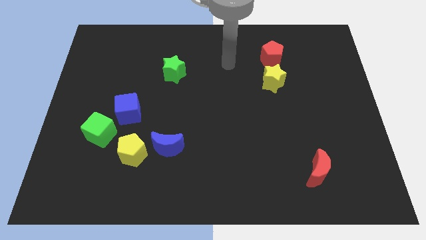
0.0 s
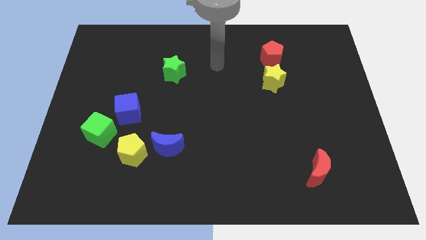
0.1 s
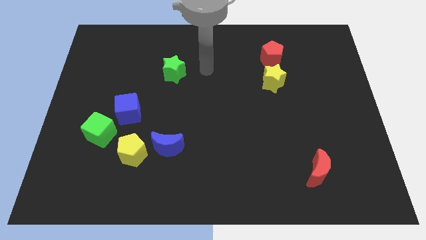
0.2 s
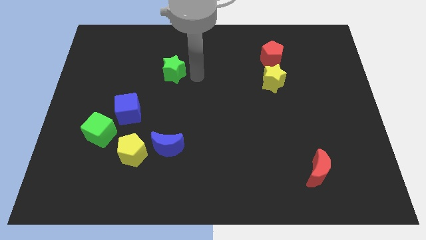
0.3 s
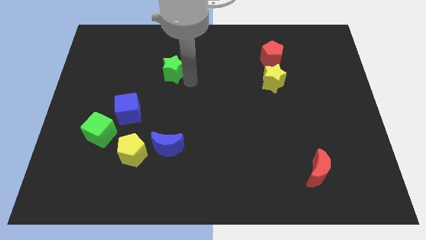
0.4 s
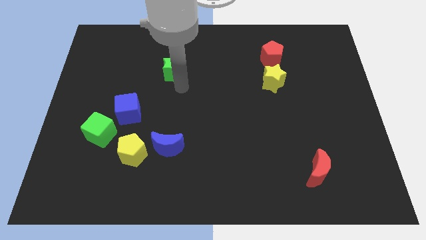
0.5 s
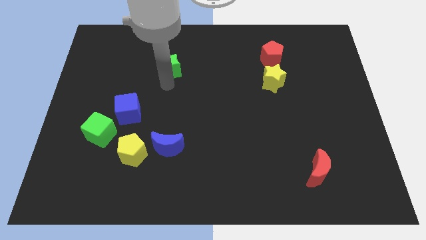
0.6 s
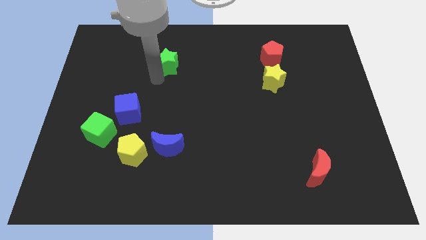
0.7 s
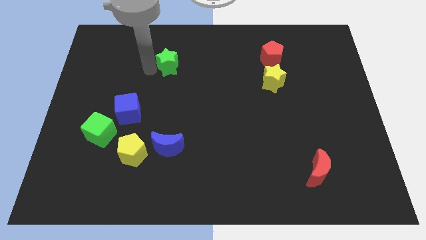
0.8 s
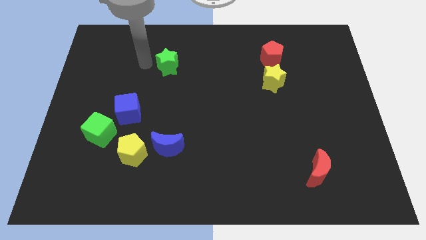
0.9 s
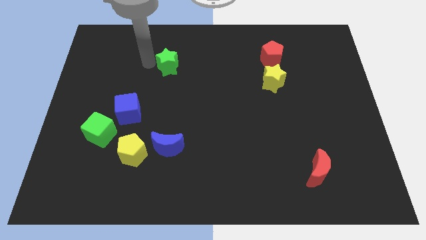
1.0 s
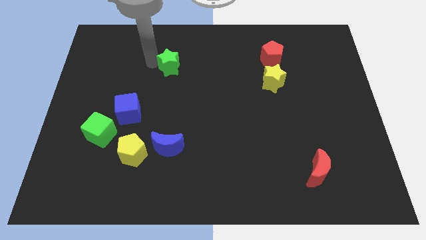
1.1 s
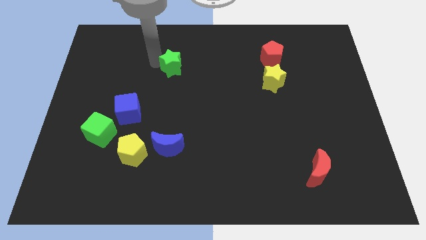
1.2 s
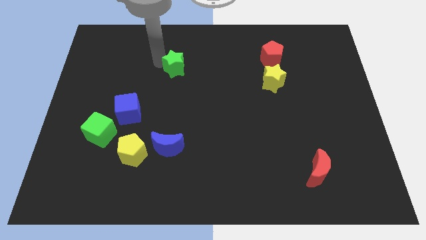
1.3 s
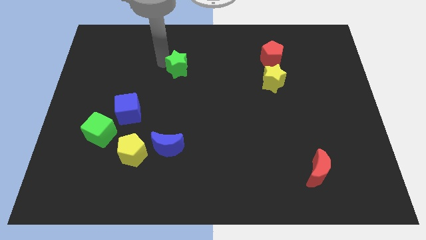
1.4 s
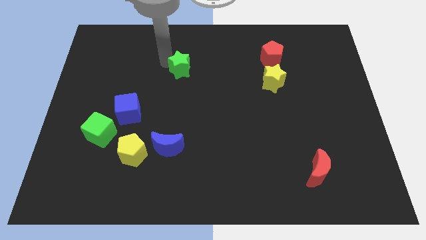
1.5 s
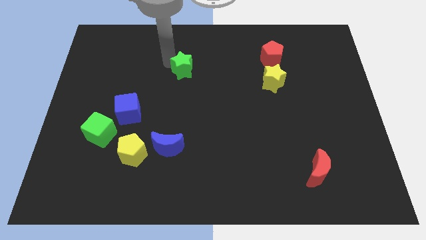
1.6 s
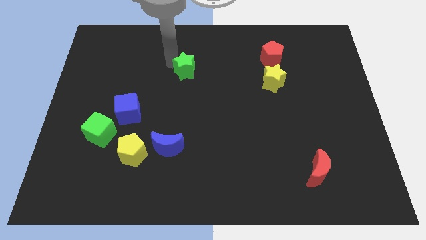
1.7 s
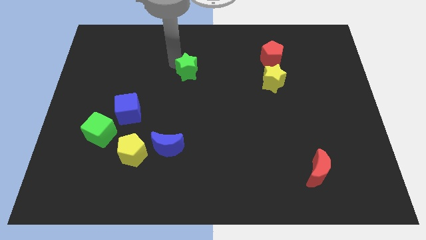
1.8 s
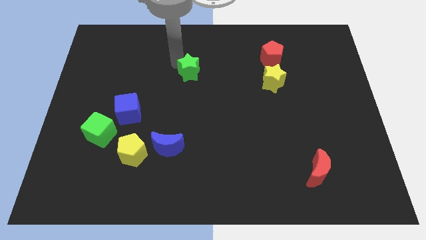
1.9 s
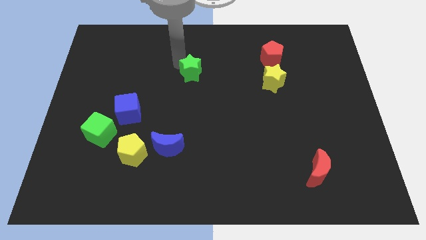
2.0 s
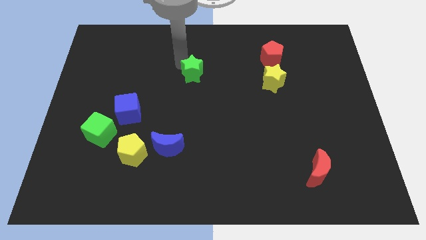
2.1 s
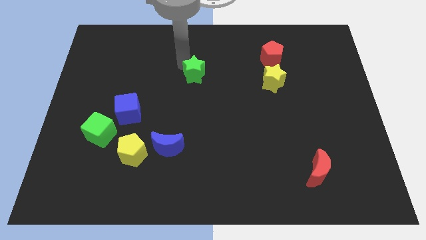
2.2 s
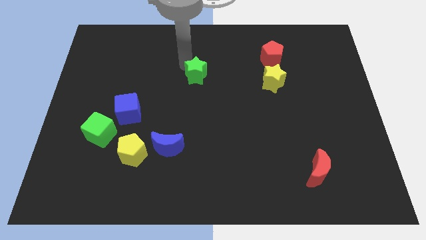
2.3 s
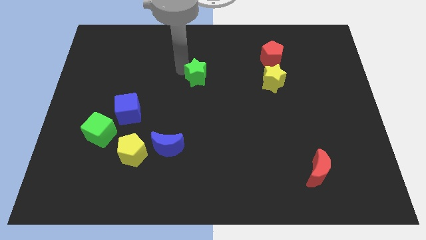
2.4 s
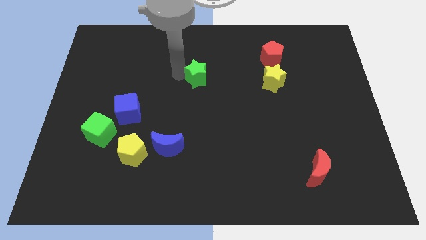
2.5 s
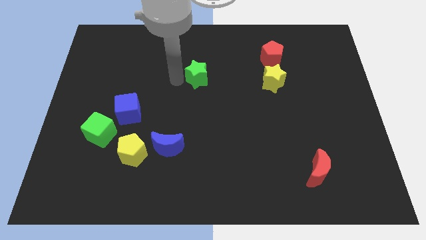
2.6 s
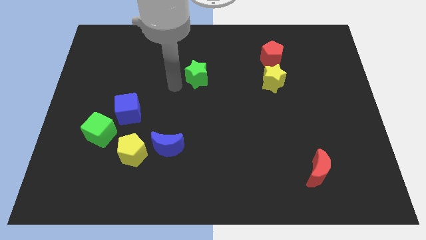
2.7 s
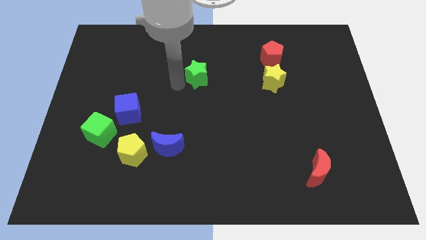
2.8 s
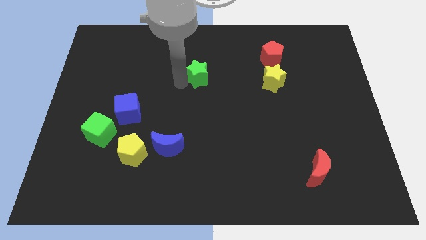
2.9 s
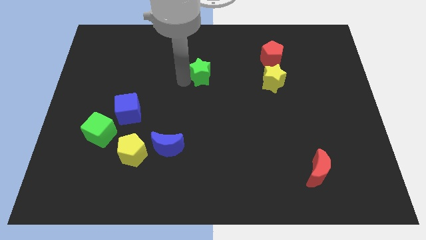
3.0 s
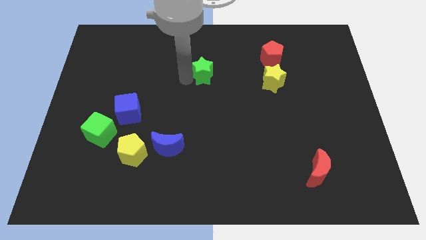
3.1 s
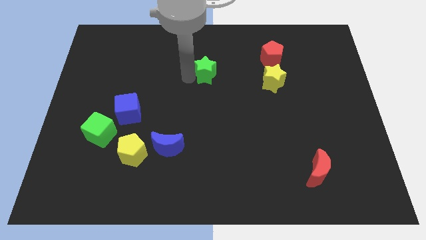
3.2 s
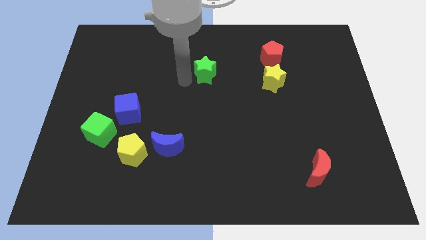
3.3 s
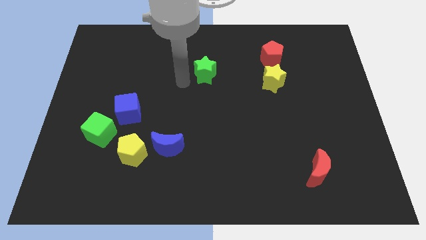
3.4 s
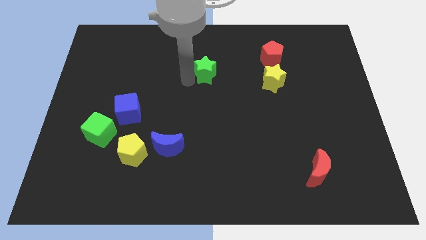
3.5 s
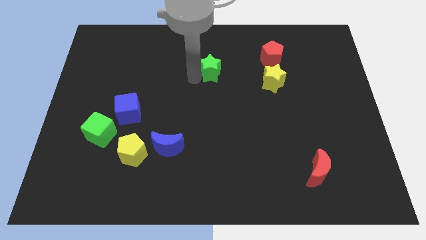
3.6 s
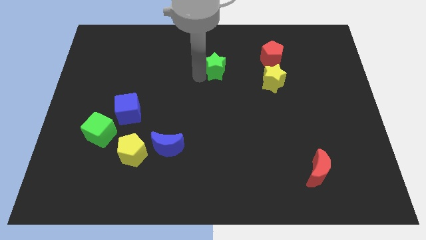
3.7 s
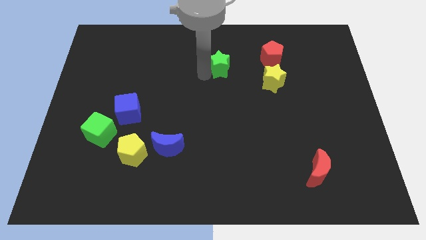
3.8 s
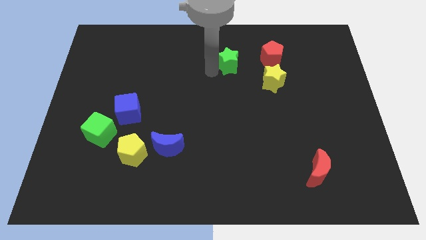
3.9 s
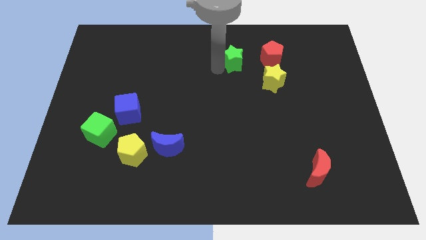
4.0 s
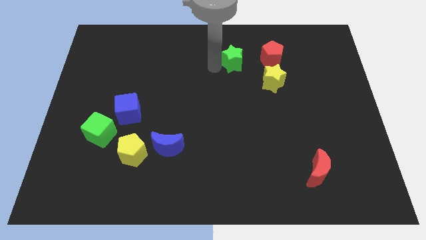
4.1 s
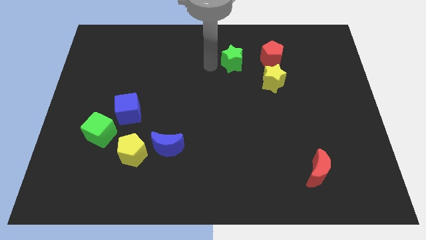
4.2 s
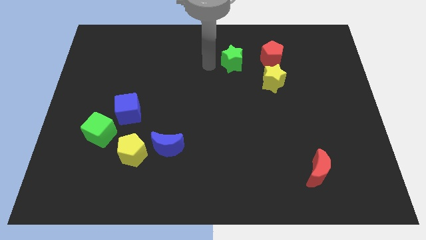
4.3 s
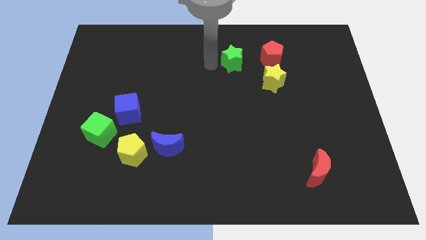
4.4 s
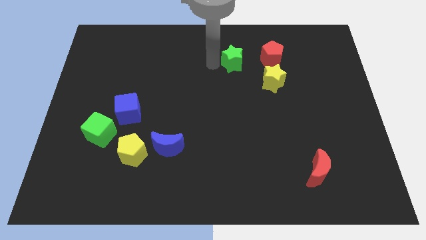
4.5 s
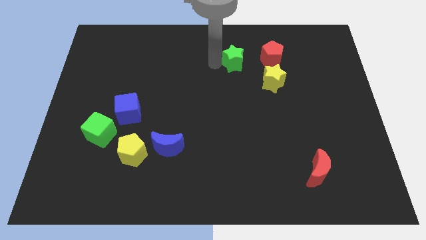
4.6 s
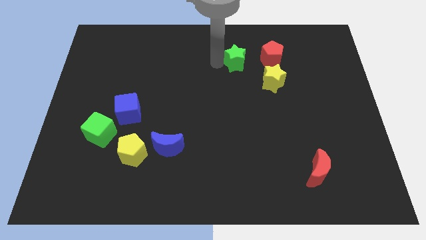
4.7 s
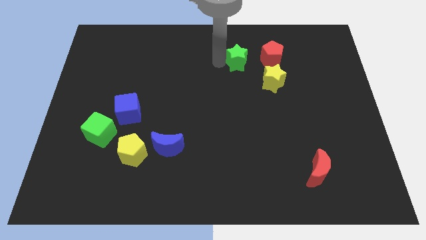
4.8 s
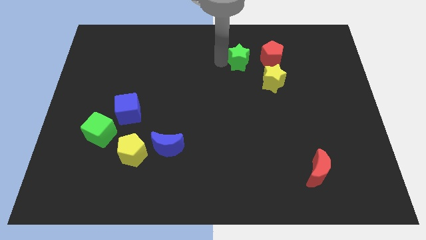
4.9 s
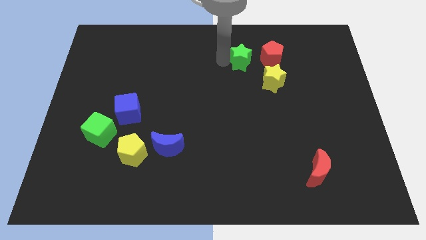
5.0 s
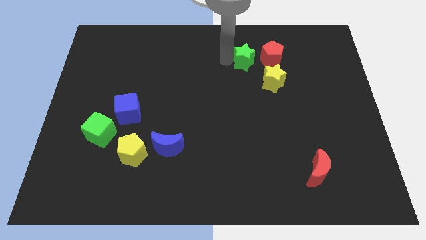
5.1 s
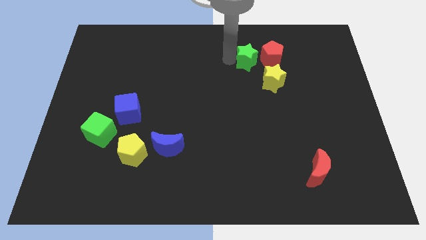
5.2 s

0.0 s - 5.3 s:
slide the green star next to the red pentagon

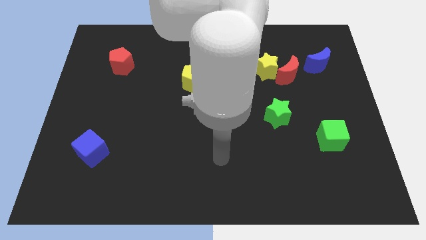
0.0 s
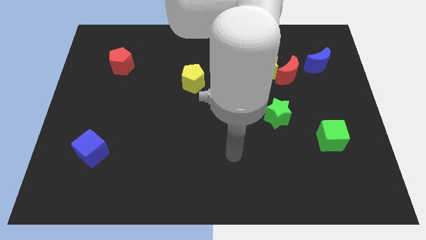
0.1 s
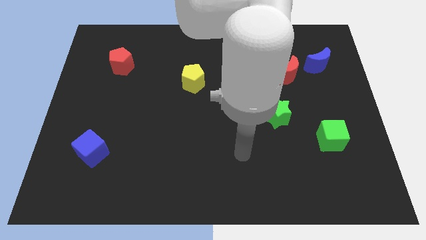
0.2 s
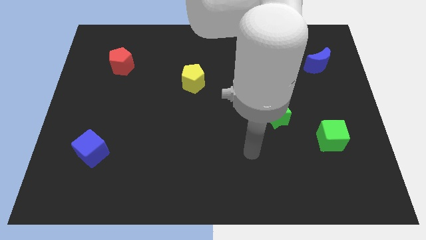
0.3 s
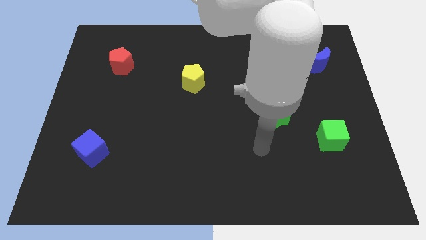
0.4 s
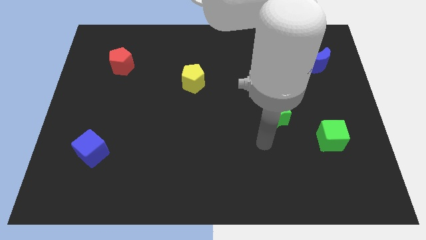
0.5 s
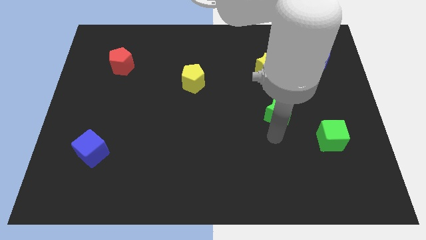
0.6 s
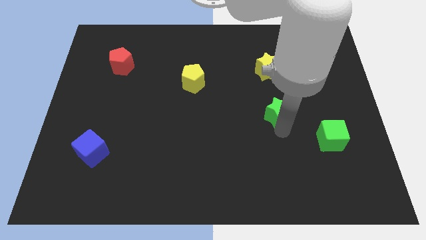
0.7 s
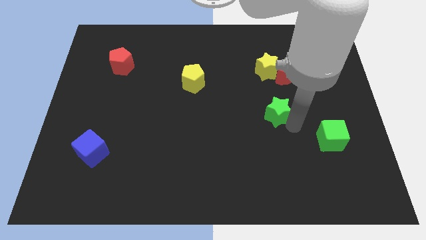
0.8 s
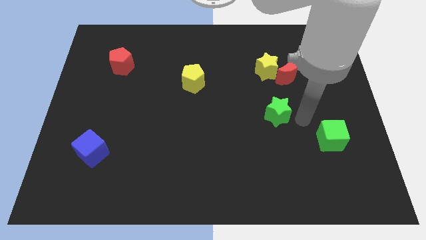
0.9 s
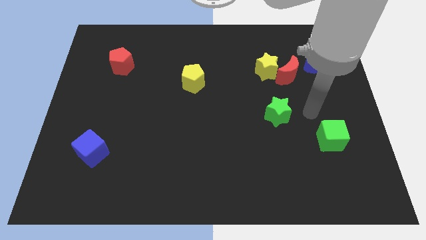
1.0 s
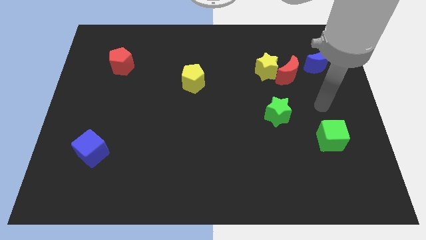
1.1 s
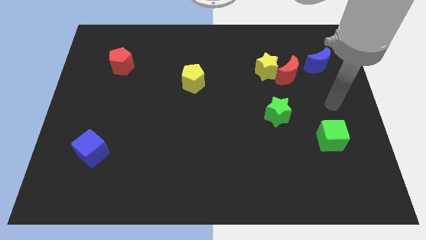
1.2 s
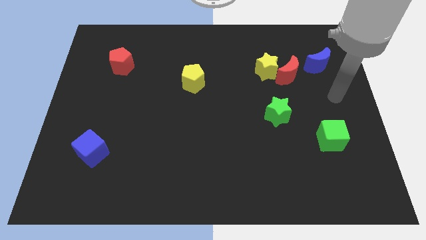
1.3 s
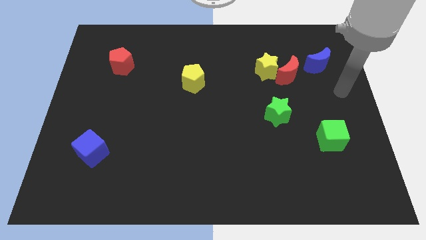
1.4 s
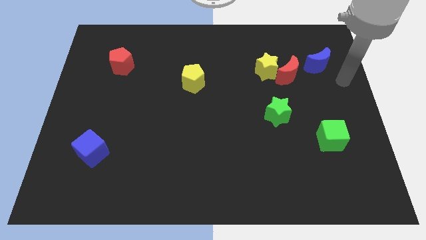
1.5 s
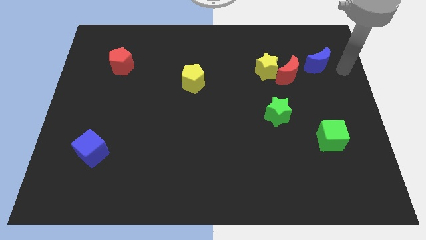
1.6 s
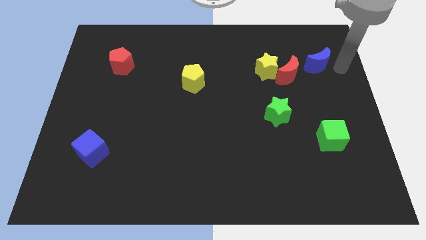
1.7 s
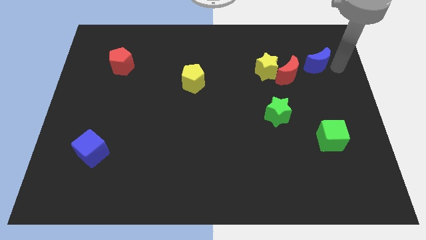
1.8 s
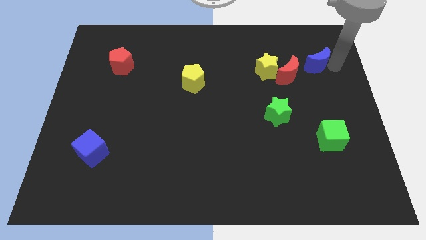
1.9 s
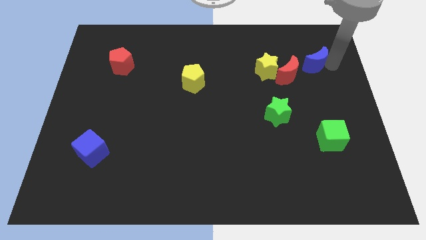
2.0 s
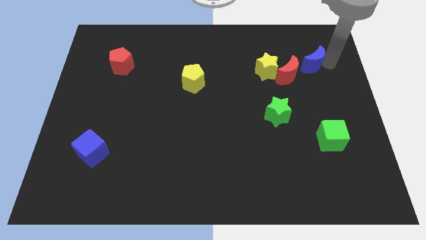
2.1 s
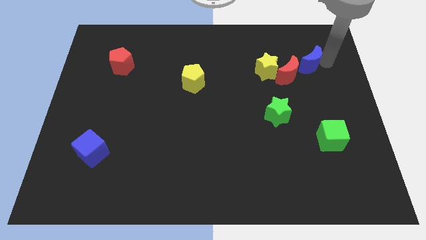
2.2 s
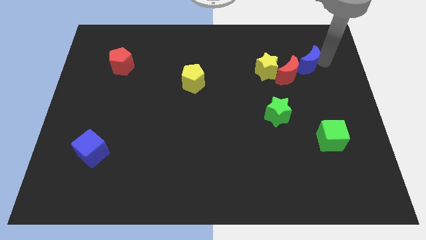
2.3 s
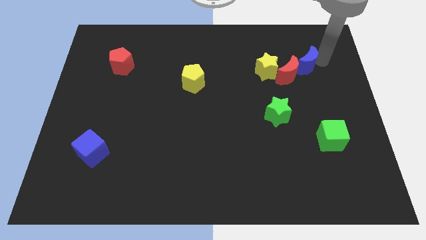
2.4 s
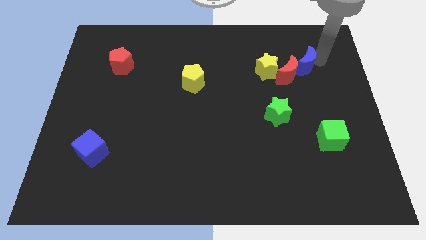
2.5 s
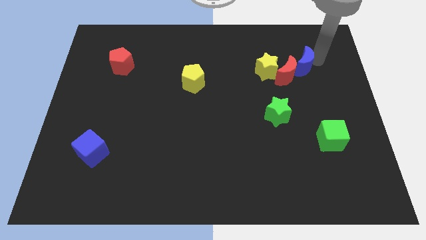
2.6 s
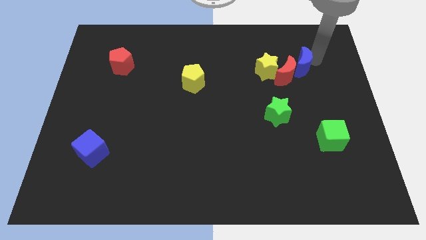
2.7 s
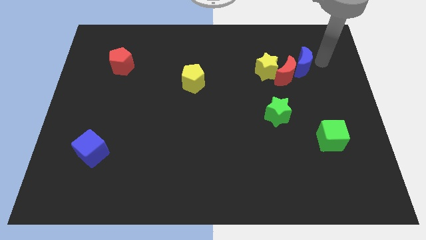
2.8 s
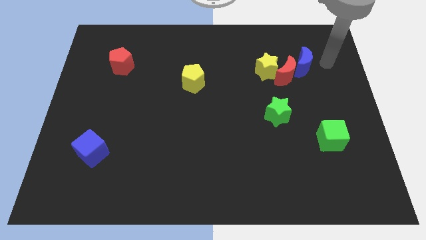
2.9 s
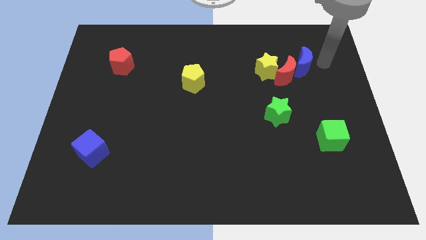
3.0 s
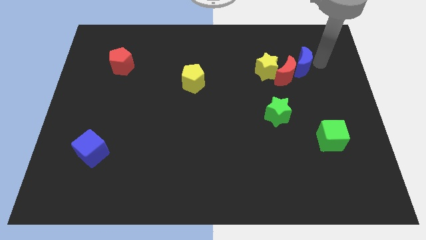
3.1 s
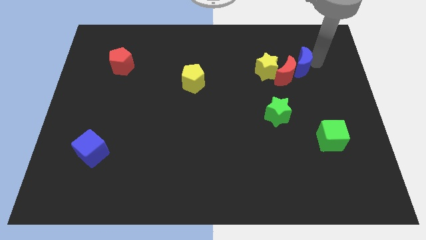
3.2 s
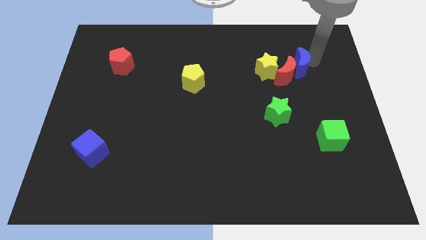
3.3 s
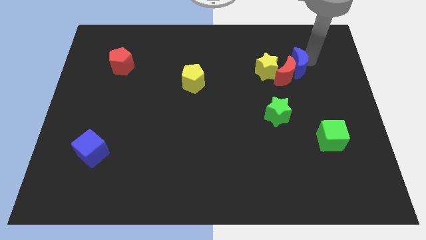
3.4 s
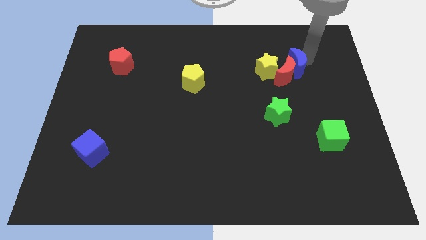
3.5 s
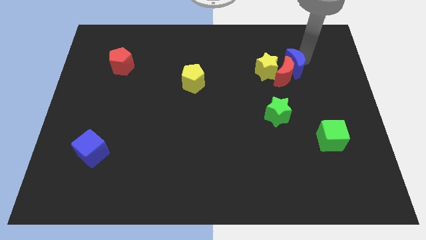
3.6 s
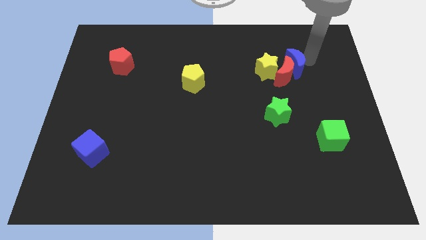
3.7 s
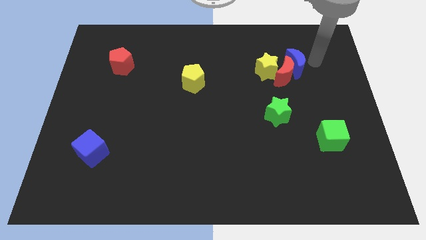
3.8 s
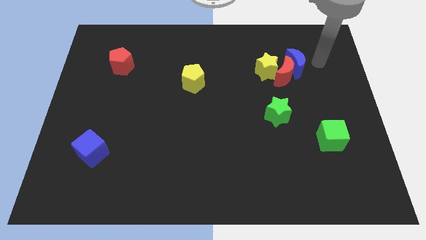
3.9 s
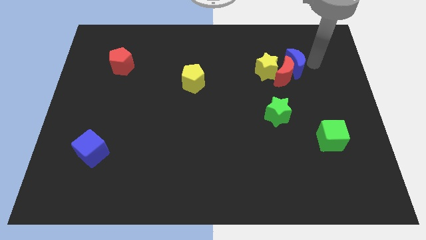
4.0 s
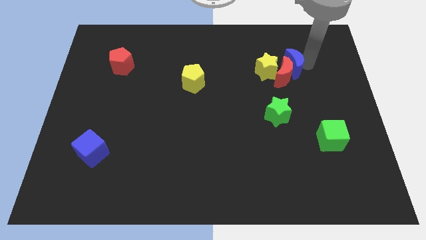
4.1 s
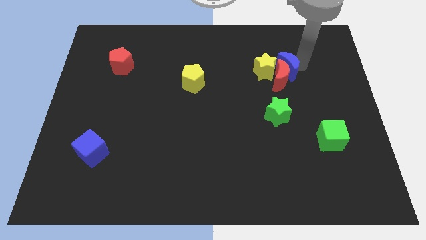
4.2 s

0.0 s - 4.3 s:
move the blue moon close to the yellow star
